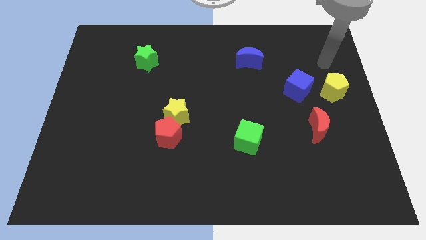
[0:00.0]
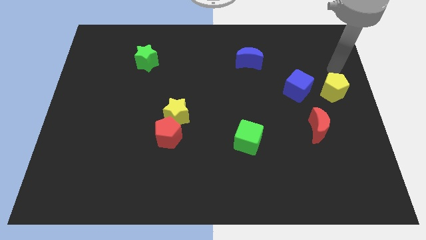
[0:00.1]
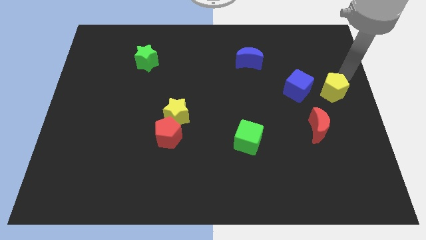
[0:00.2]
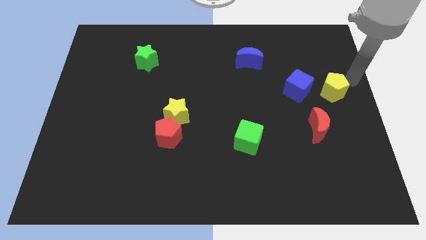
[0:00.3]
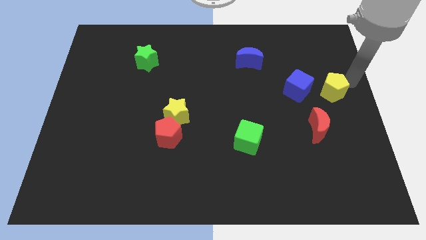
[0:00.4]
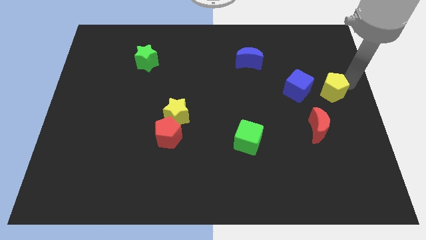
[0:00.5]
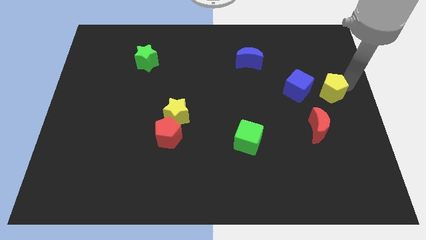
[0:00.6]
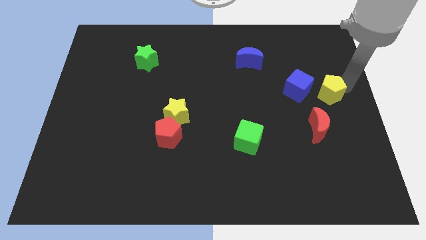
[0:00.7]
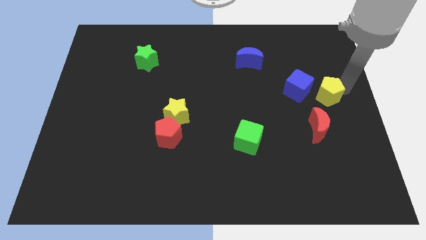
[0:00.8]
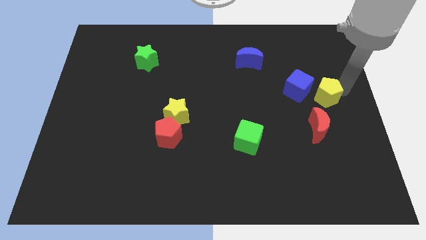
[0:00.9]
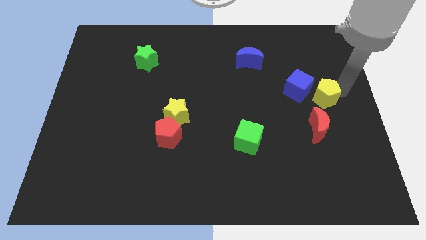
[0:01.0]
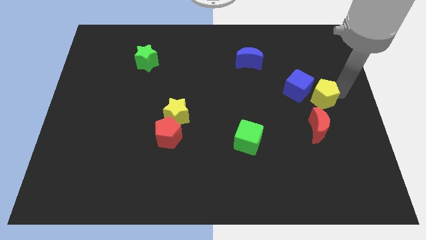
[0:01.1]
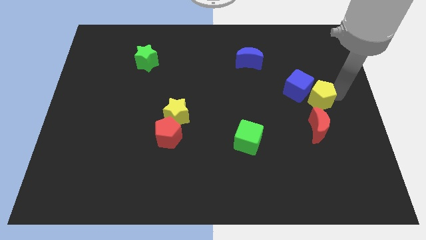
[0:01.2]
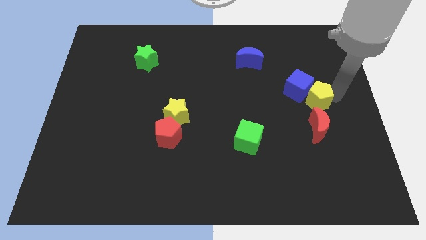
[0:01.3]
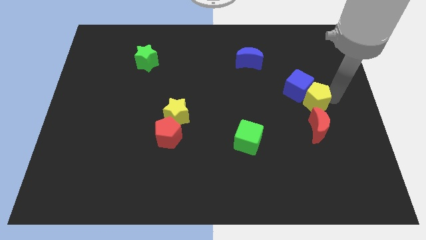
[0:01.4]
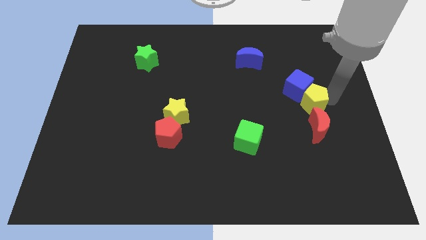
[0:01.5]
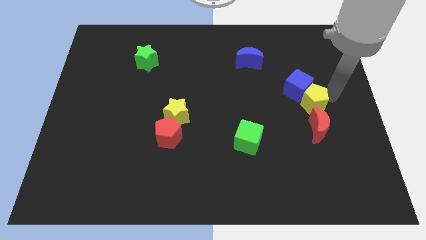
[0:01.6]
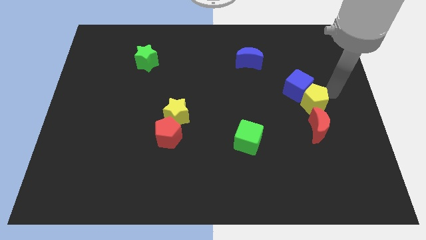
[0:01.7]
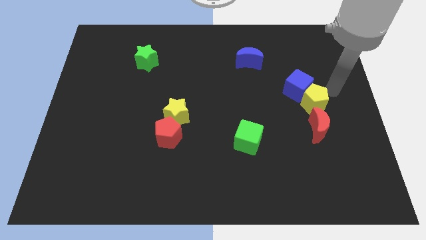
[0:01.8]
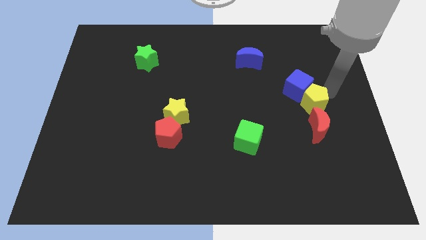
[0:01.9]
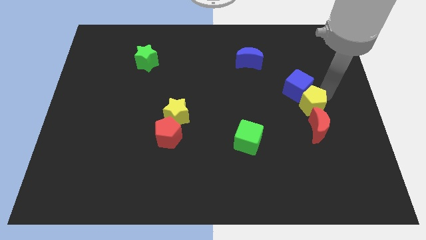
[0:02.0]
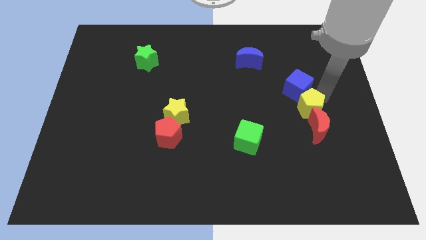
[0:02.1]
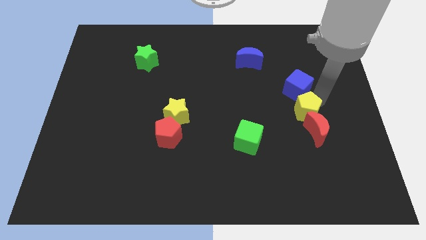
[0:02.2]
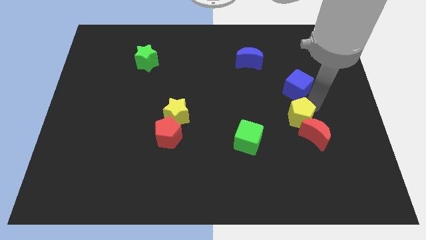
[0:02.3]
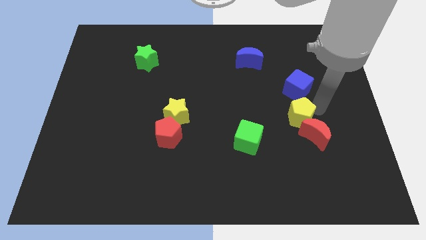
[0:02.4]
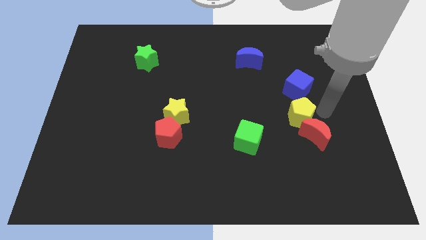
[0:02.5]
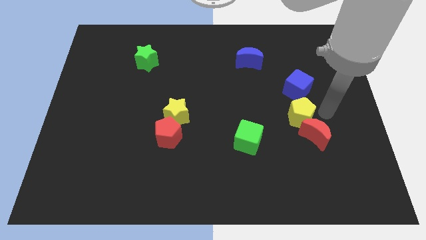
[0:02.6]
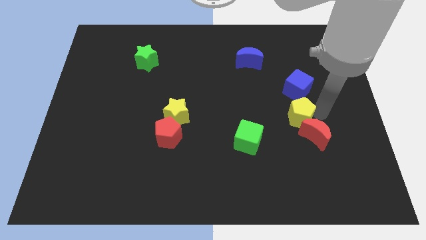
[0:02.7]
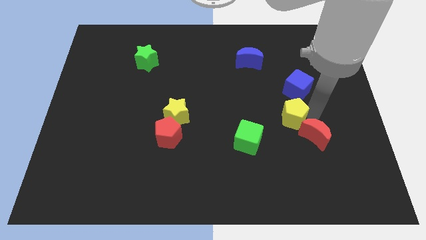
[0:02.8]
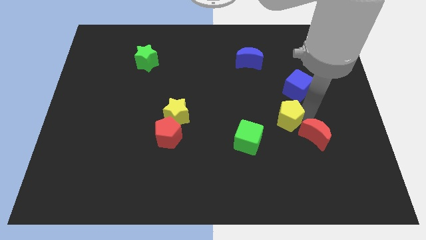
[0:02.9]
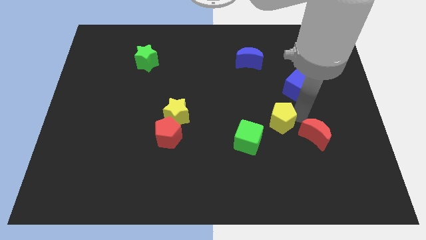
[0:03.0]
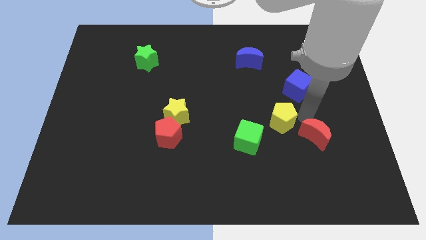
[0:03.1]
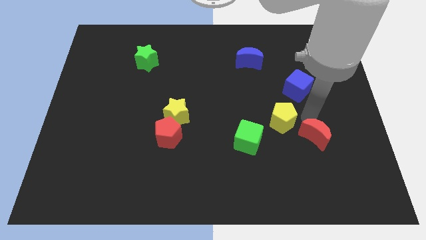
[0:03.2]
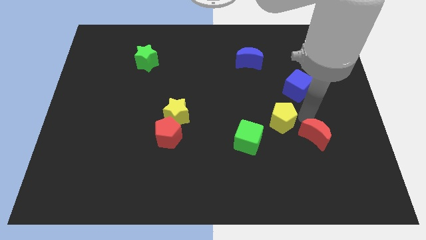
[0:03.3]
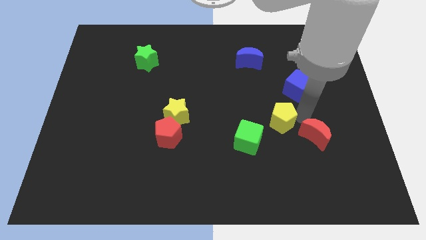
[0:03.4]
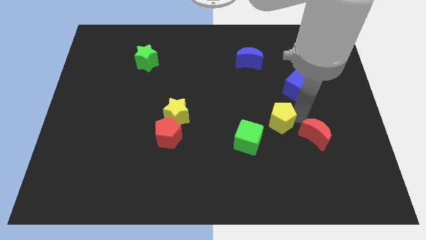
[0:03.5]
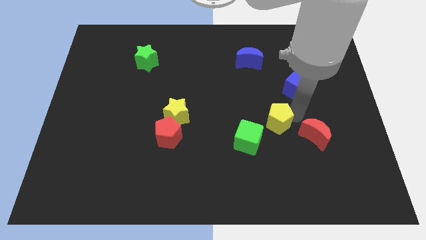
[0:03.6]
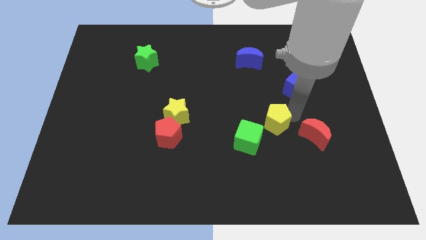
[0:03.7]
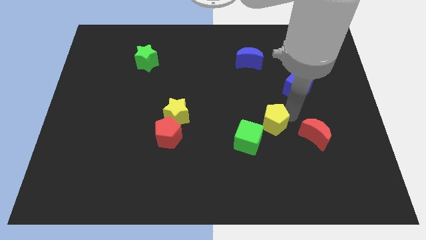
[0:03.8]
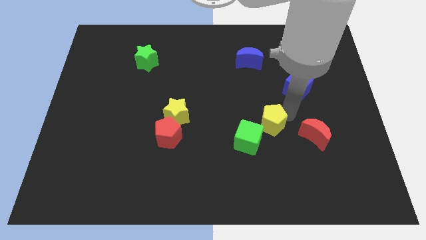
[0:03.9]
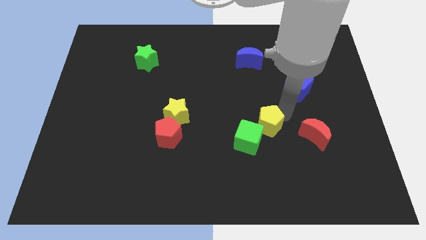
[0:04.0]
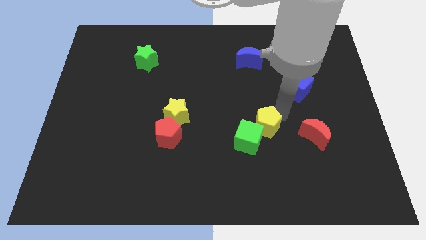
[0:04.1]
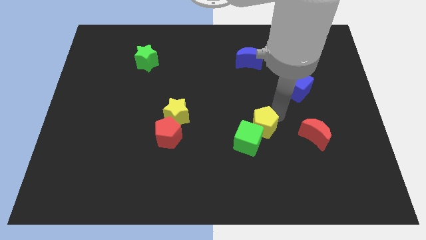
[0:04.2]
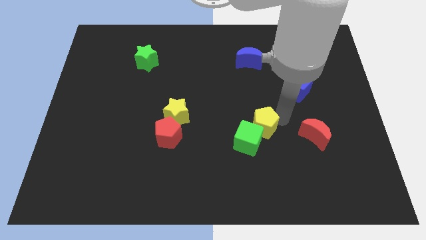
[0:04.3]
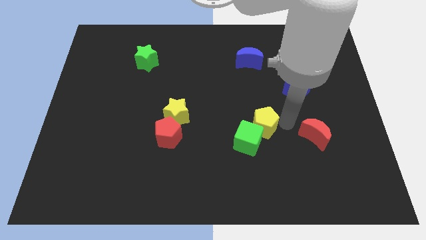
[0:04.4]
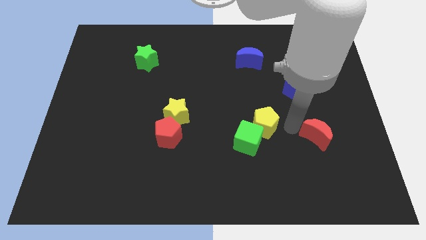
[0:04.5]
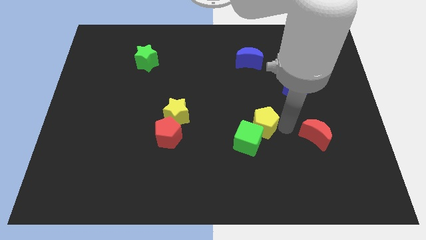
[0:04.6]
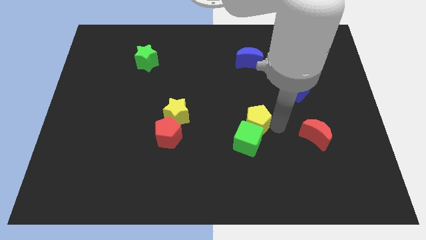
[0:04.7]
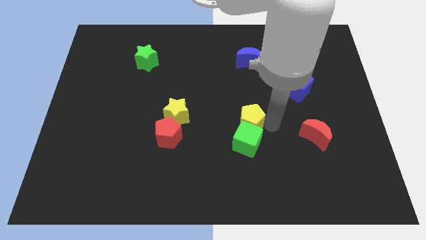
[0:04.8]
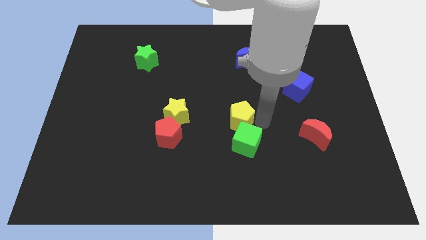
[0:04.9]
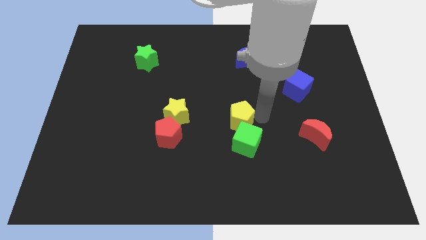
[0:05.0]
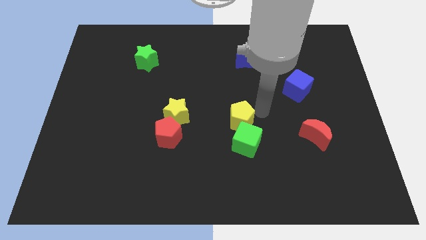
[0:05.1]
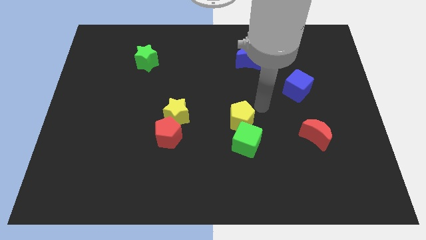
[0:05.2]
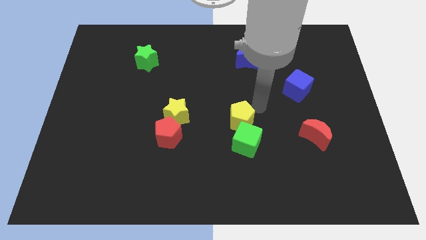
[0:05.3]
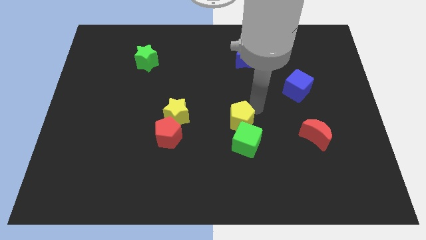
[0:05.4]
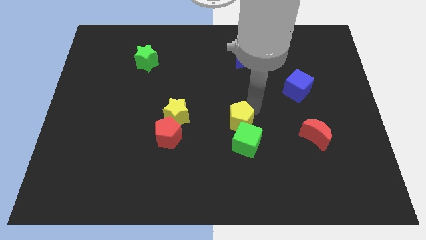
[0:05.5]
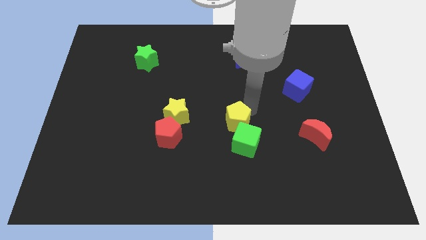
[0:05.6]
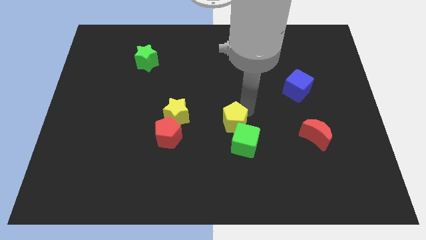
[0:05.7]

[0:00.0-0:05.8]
move the yellow pentagon right of the red pentagon

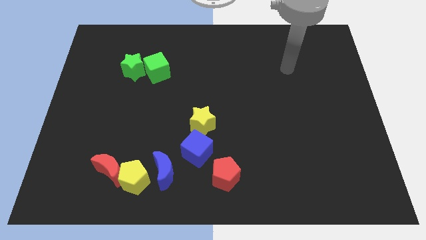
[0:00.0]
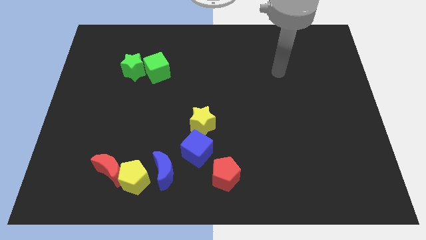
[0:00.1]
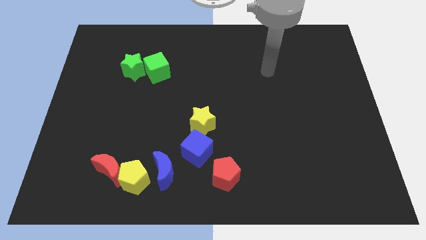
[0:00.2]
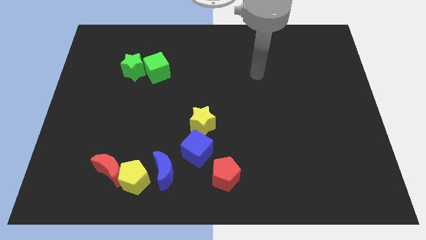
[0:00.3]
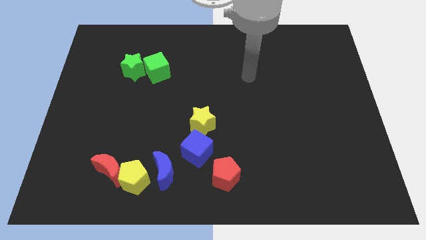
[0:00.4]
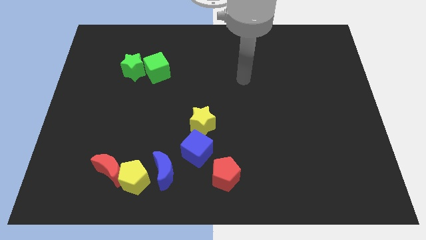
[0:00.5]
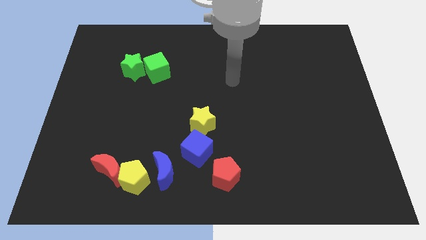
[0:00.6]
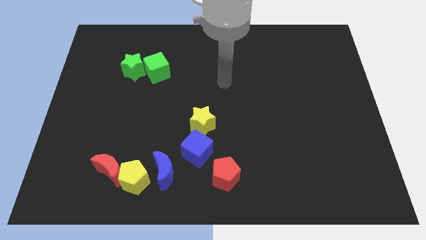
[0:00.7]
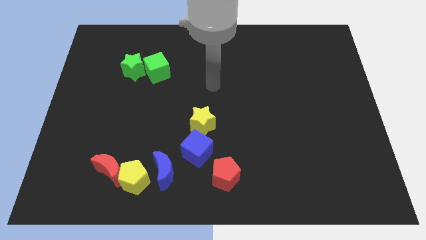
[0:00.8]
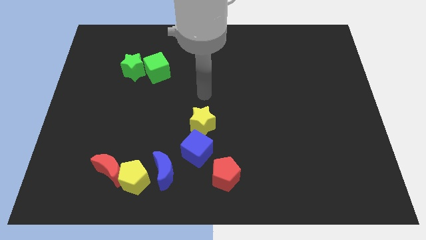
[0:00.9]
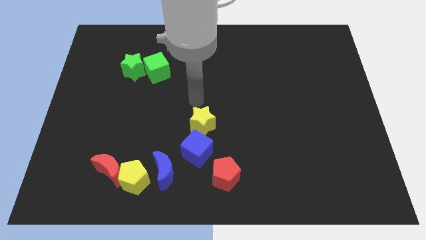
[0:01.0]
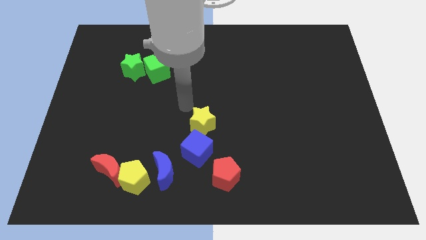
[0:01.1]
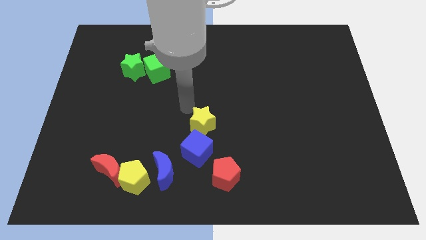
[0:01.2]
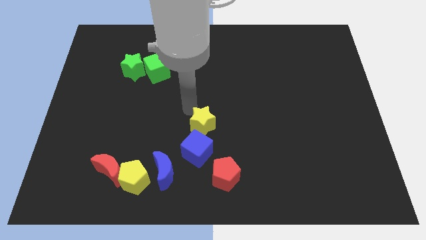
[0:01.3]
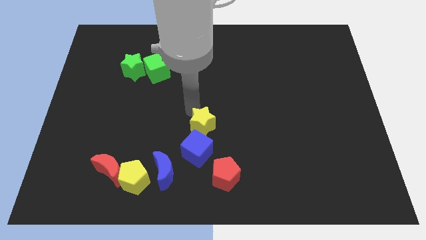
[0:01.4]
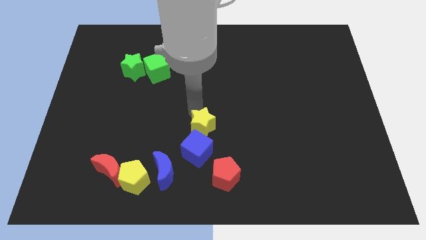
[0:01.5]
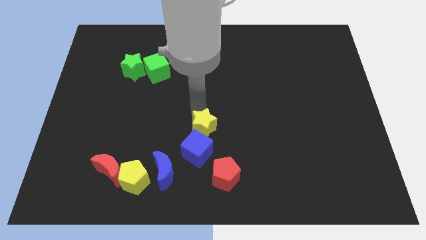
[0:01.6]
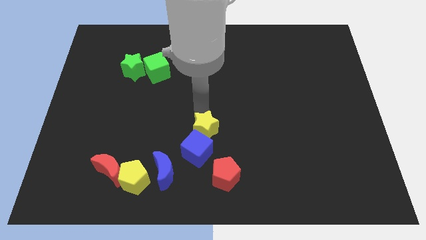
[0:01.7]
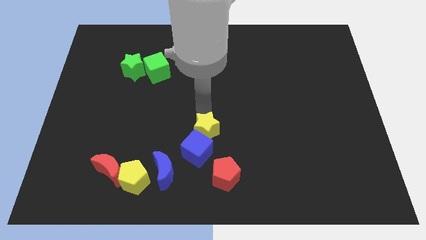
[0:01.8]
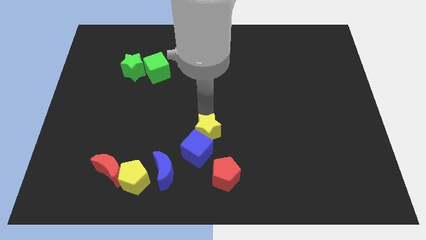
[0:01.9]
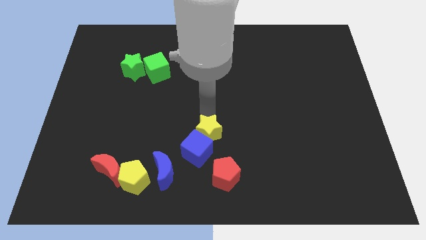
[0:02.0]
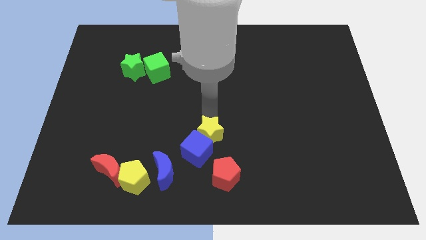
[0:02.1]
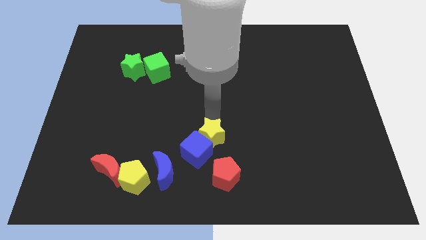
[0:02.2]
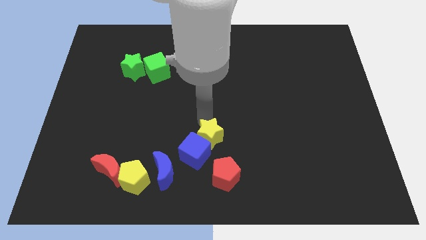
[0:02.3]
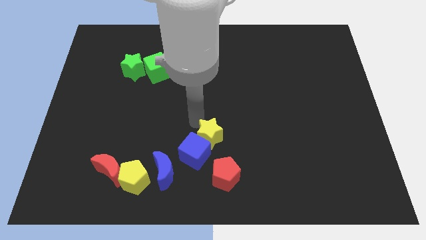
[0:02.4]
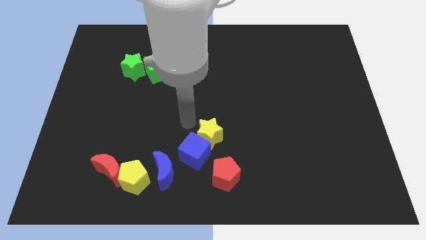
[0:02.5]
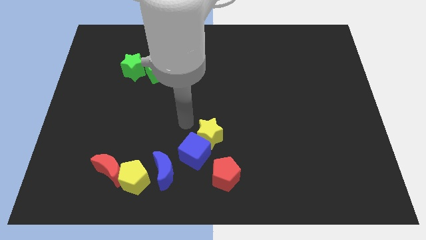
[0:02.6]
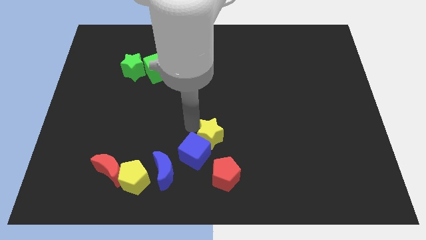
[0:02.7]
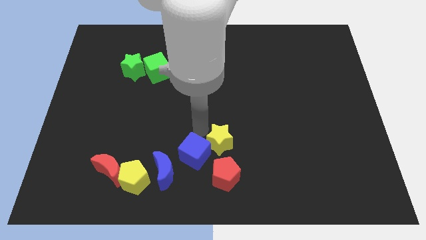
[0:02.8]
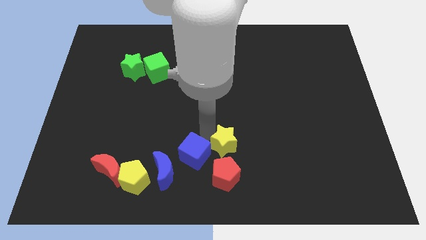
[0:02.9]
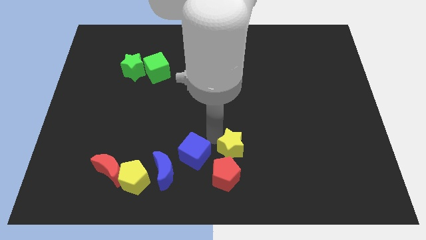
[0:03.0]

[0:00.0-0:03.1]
slide the yellow star to the top right of the red pentagon
